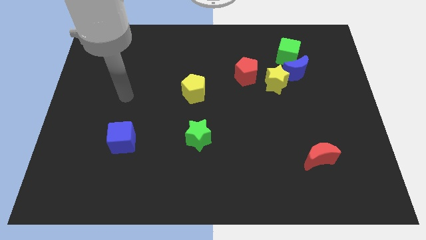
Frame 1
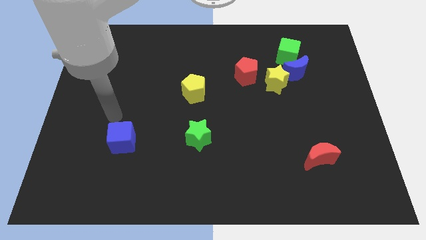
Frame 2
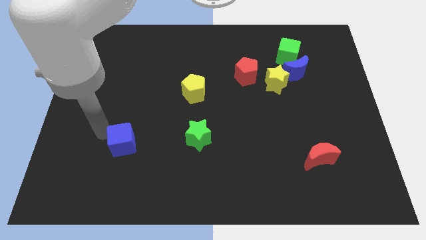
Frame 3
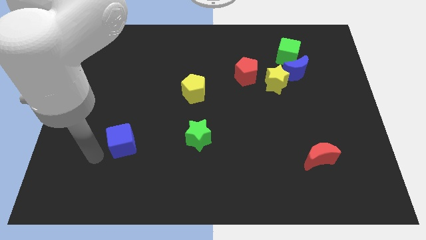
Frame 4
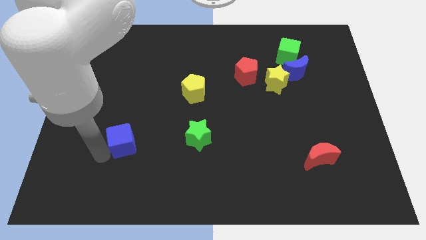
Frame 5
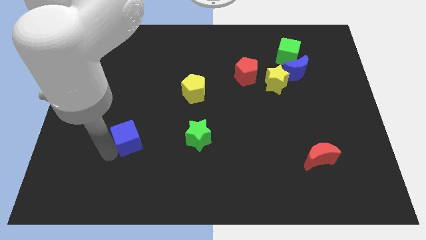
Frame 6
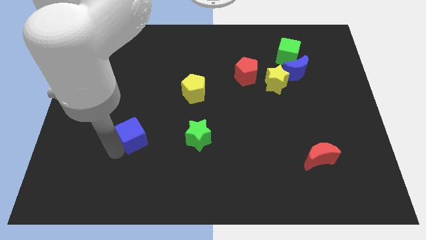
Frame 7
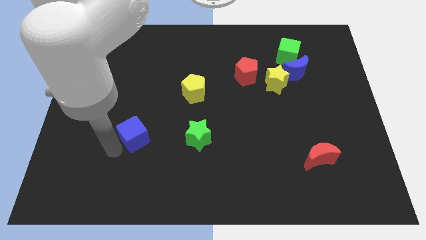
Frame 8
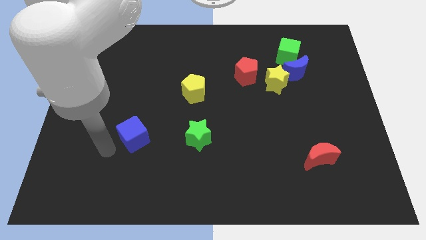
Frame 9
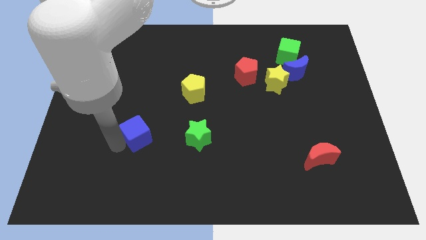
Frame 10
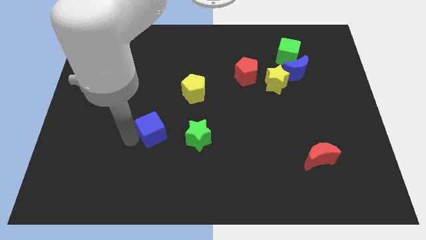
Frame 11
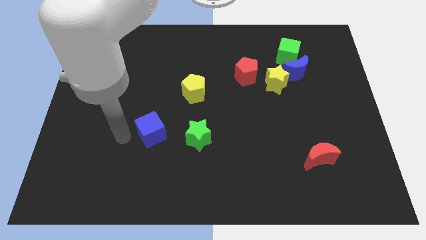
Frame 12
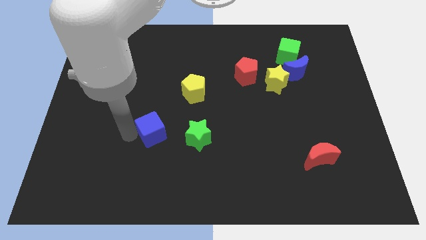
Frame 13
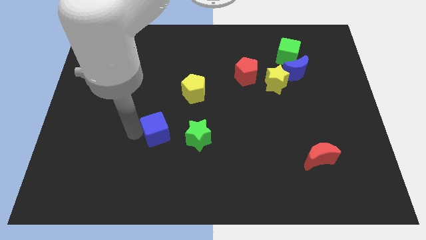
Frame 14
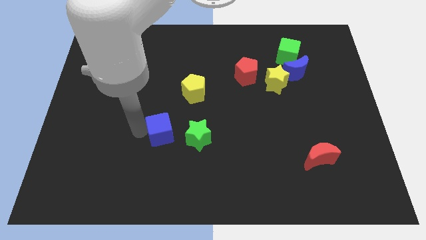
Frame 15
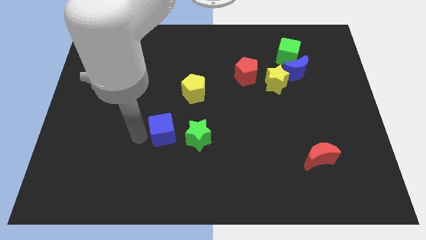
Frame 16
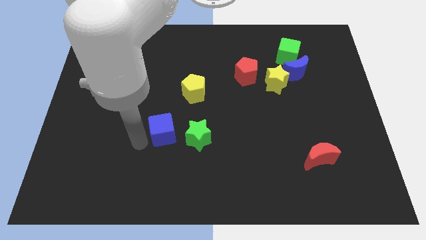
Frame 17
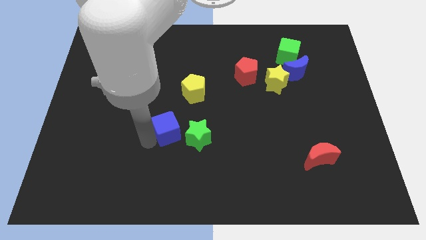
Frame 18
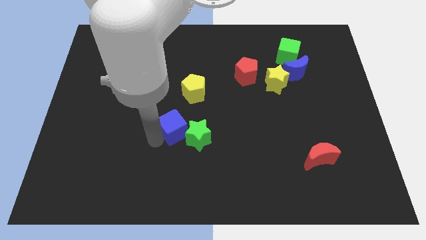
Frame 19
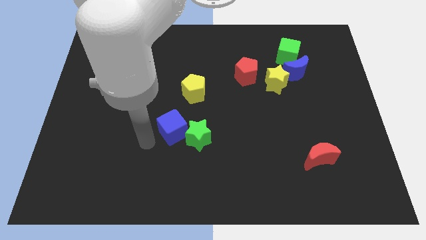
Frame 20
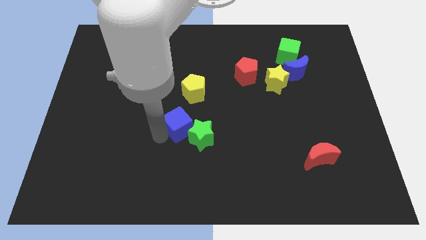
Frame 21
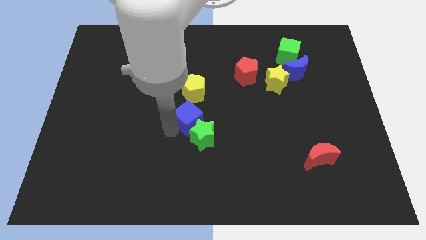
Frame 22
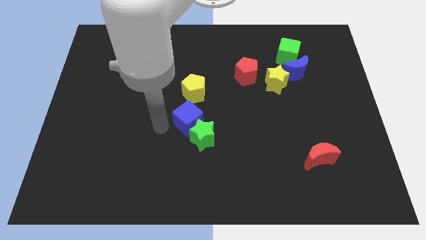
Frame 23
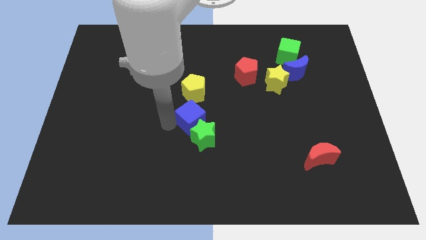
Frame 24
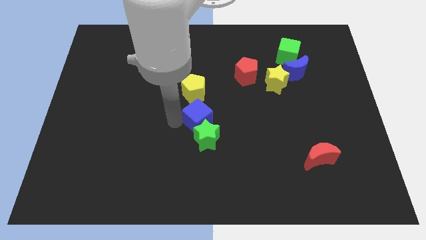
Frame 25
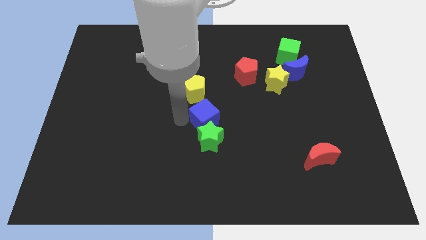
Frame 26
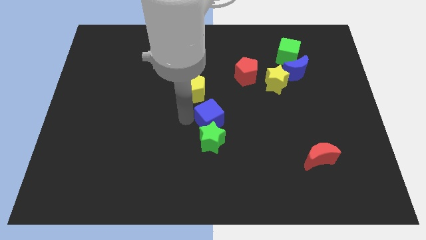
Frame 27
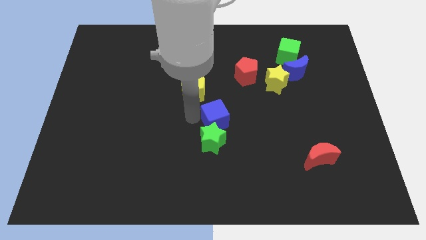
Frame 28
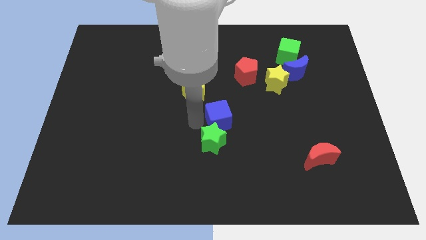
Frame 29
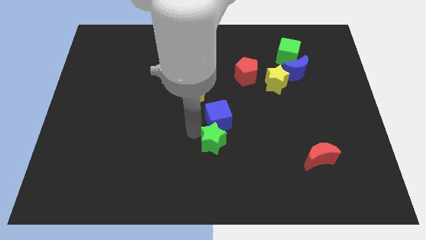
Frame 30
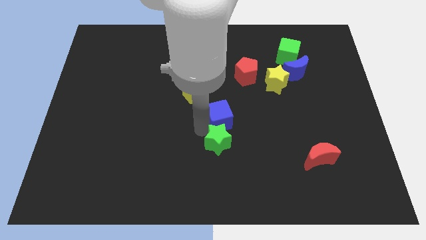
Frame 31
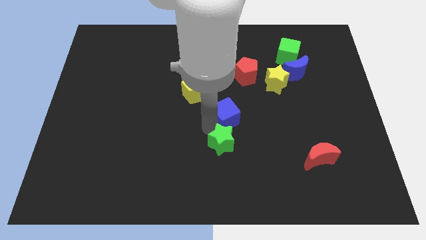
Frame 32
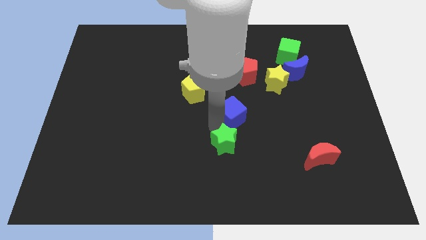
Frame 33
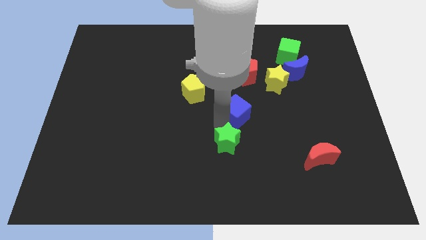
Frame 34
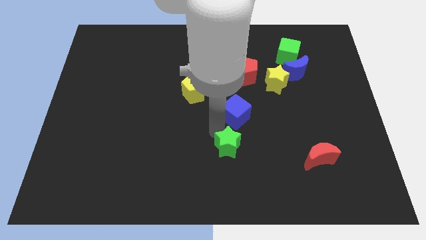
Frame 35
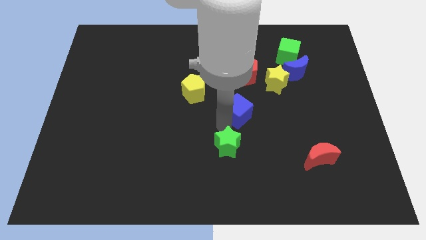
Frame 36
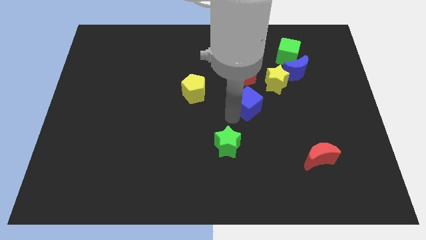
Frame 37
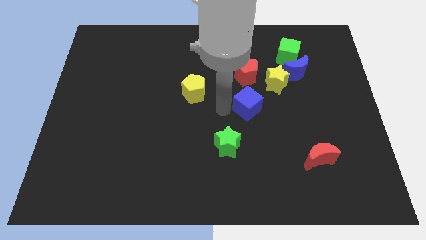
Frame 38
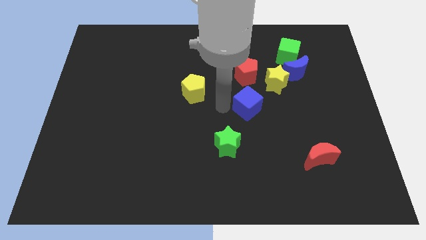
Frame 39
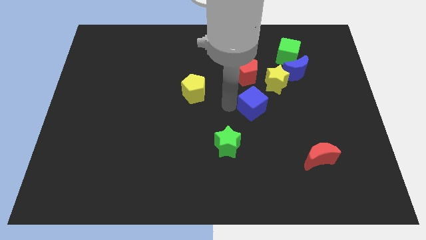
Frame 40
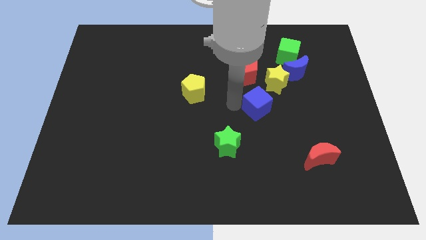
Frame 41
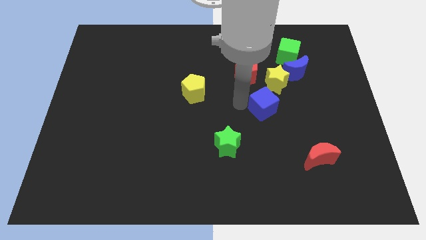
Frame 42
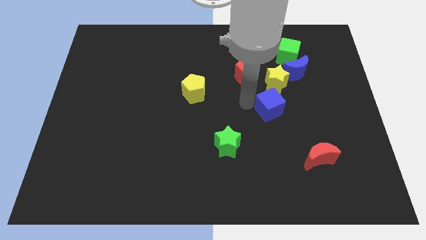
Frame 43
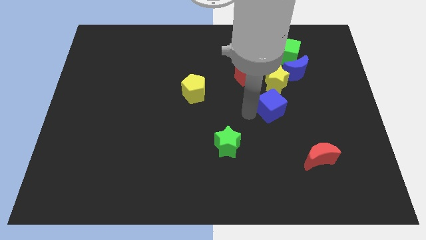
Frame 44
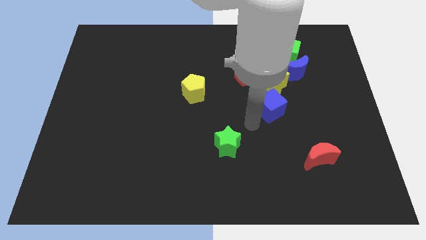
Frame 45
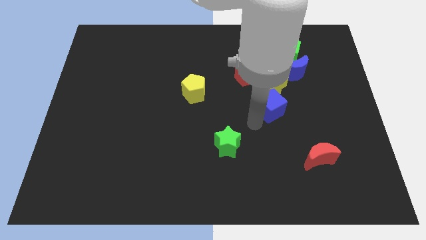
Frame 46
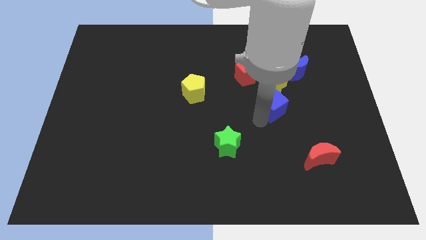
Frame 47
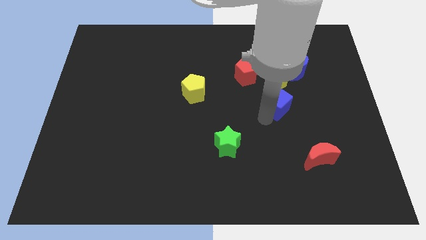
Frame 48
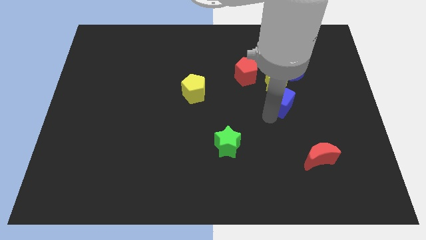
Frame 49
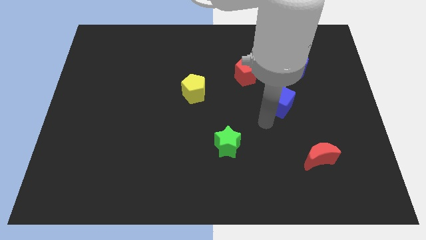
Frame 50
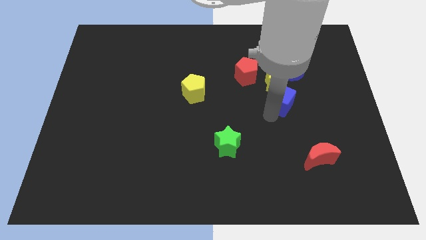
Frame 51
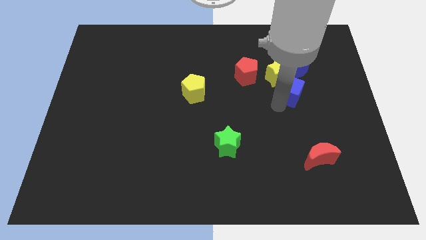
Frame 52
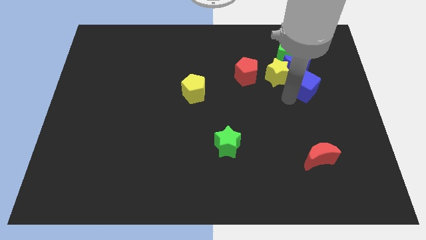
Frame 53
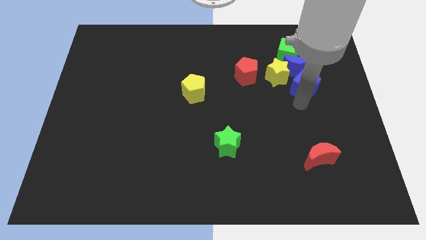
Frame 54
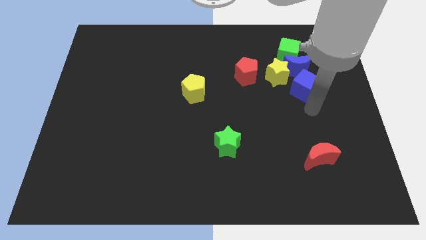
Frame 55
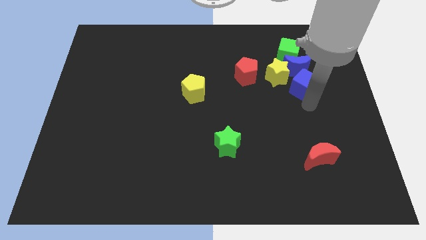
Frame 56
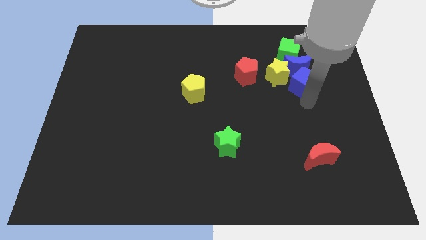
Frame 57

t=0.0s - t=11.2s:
move the blue cube close to the blue moon

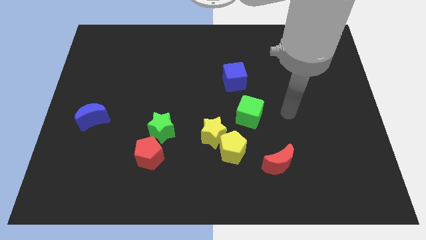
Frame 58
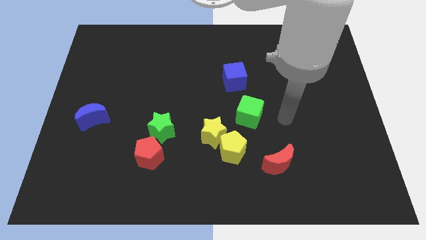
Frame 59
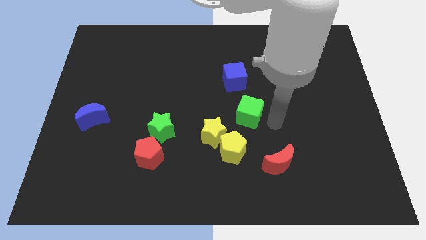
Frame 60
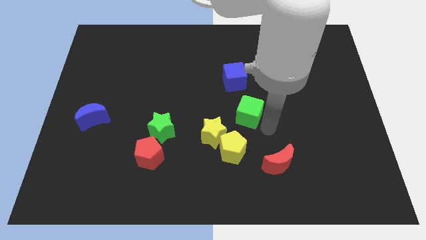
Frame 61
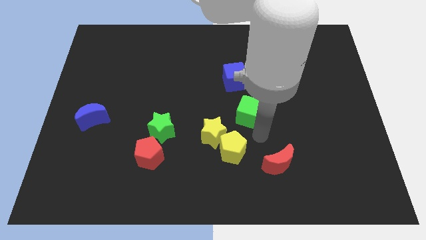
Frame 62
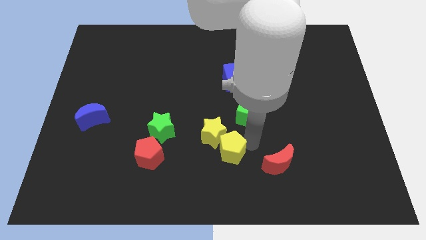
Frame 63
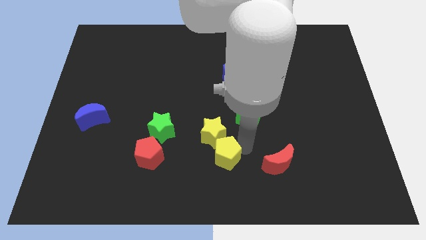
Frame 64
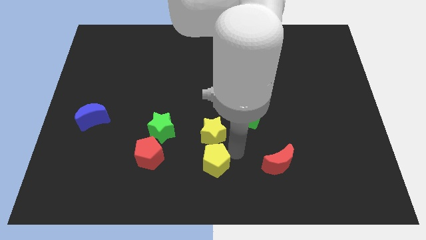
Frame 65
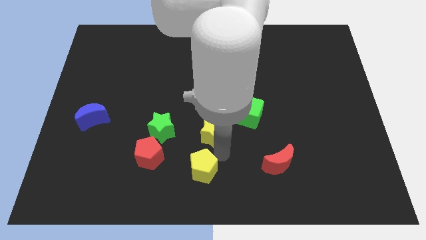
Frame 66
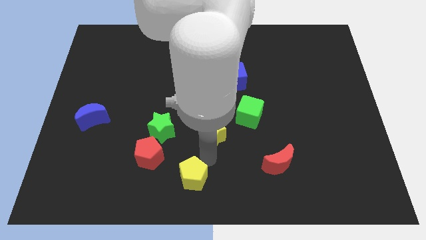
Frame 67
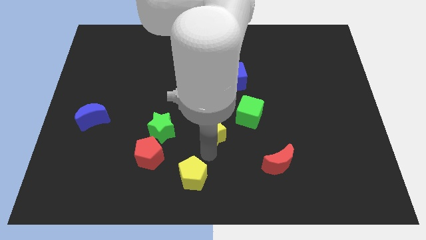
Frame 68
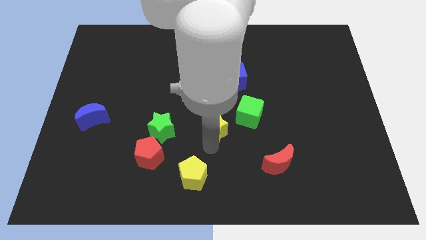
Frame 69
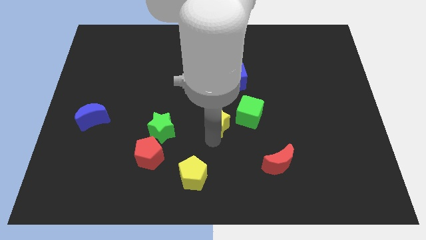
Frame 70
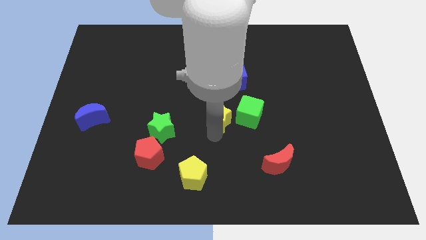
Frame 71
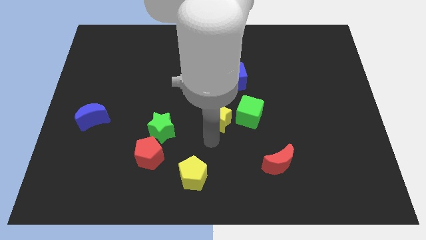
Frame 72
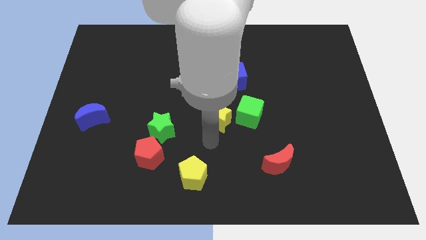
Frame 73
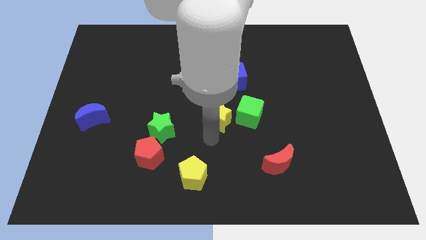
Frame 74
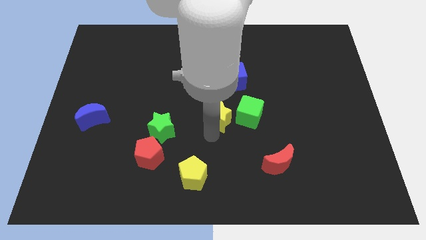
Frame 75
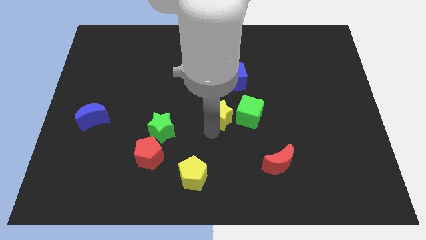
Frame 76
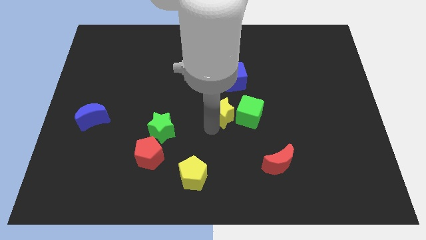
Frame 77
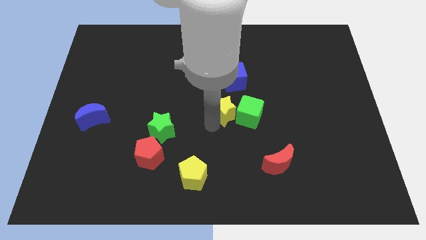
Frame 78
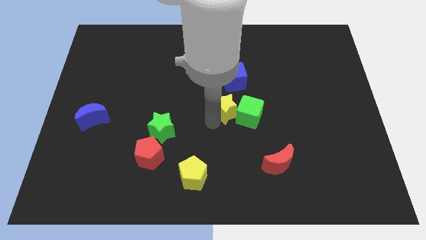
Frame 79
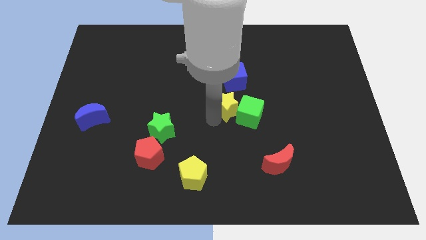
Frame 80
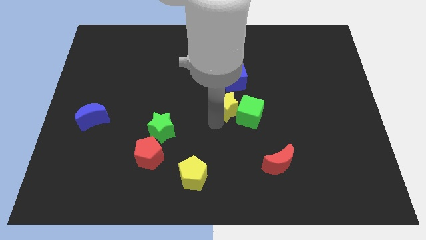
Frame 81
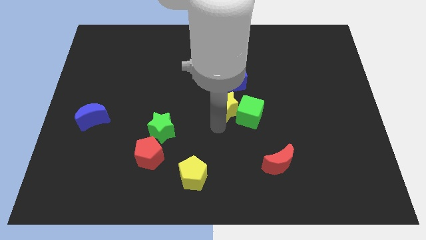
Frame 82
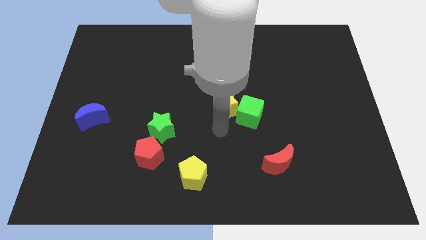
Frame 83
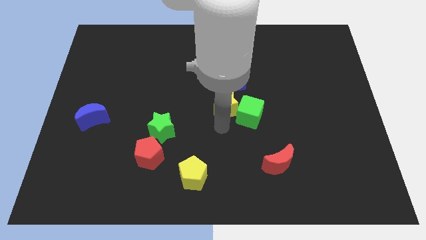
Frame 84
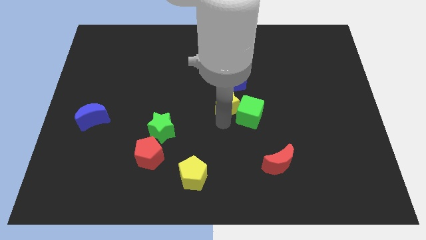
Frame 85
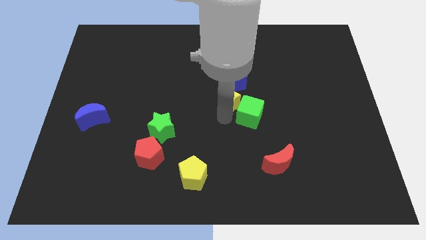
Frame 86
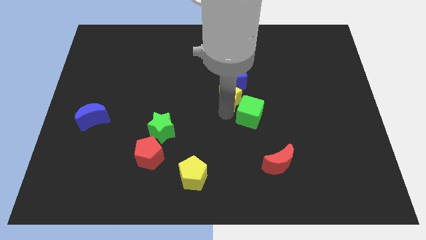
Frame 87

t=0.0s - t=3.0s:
put the yellow star next to the blue cube
